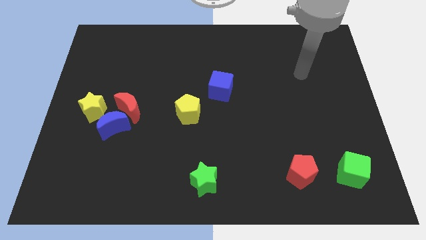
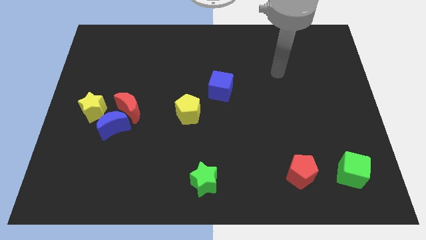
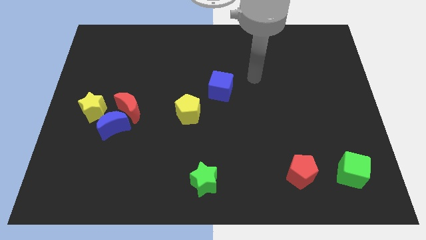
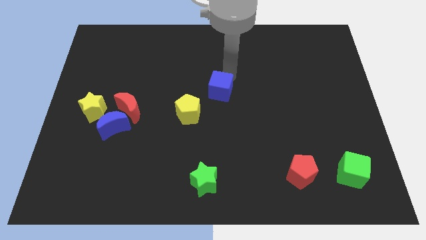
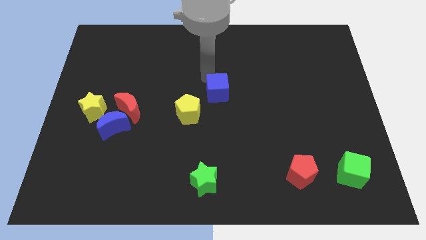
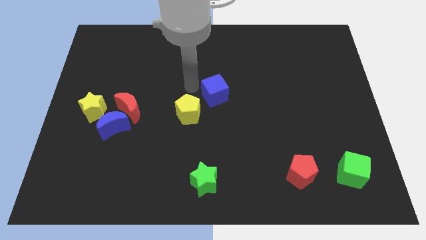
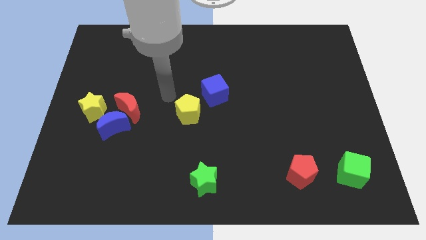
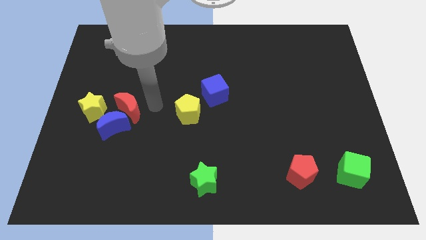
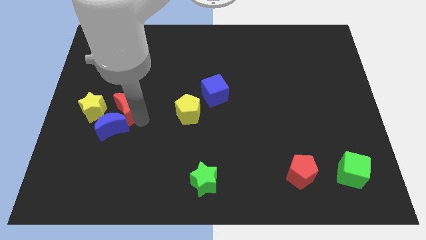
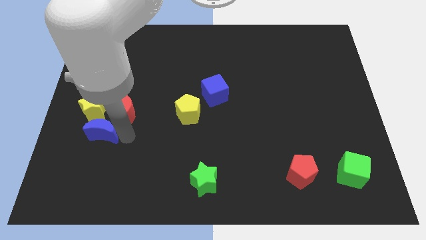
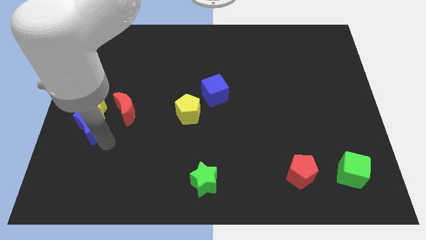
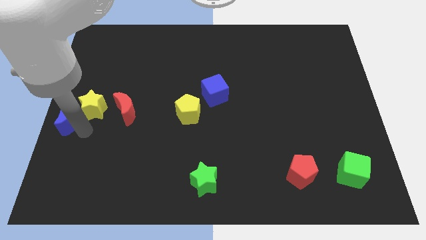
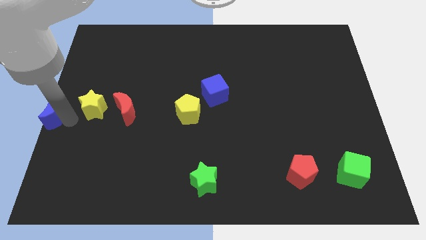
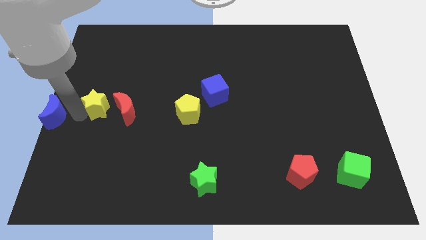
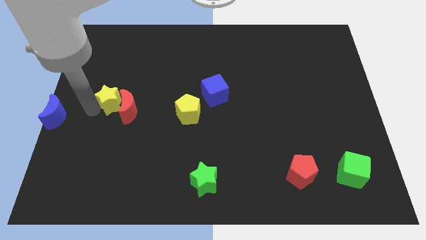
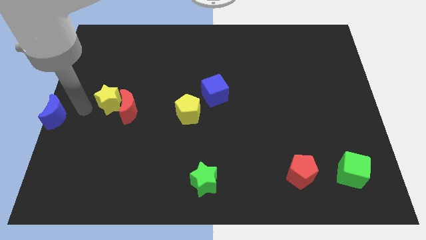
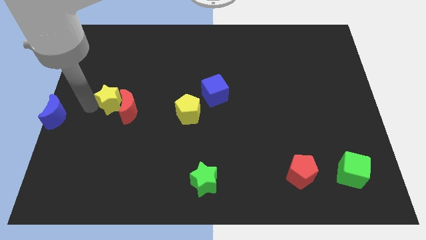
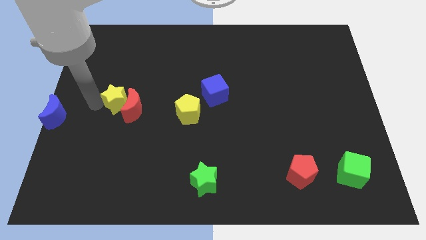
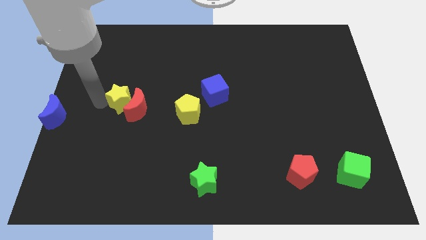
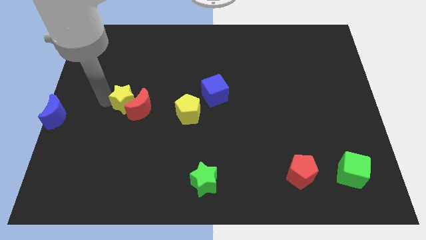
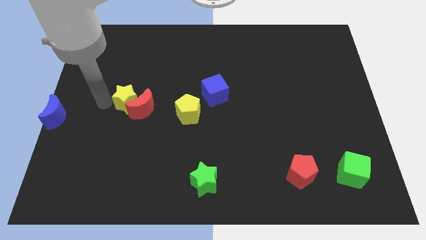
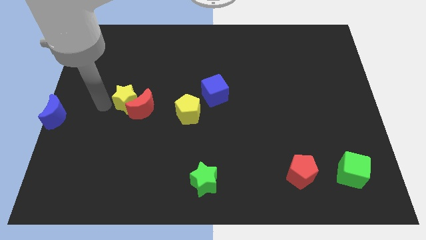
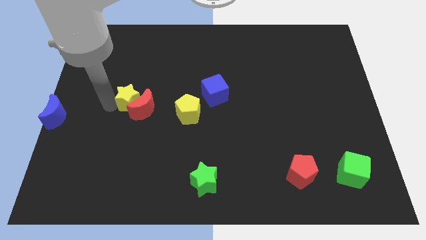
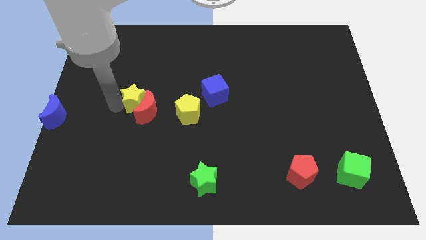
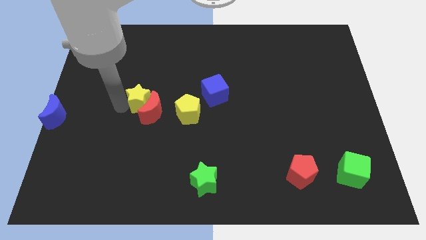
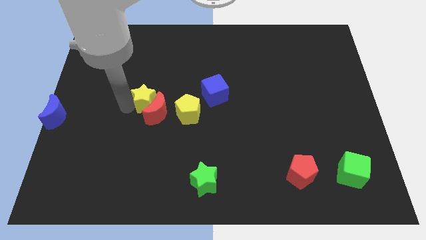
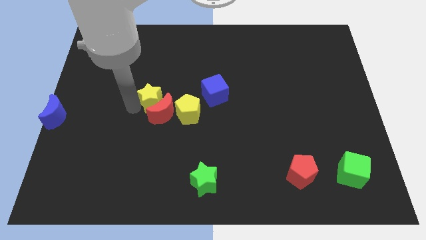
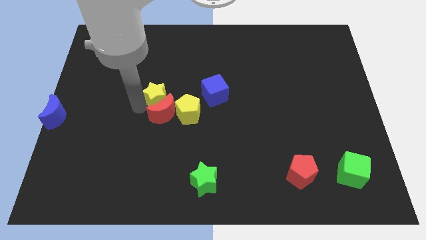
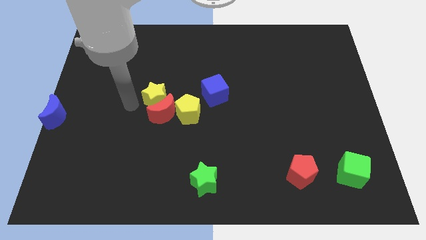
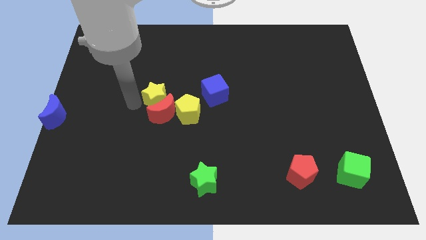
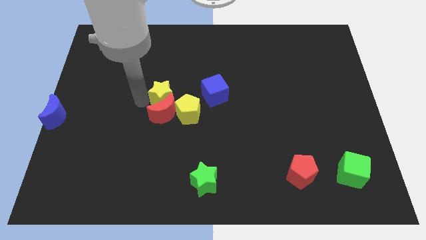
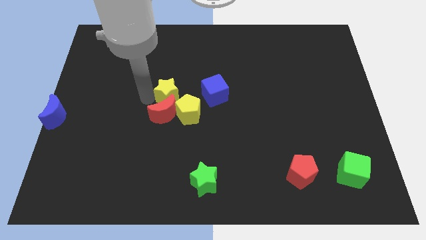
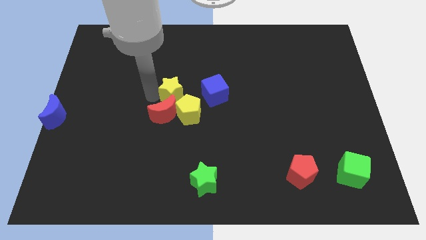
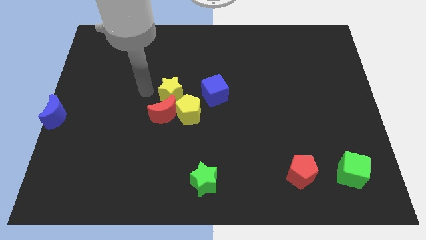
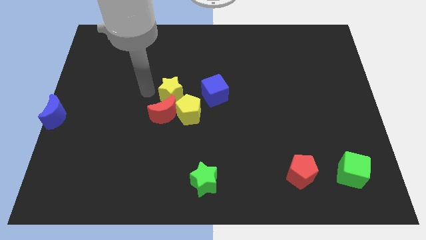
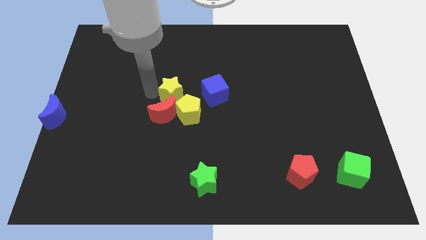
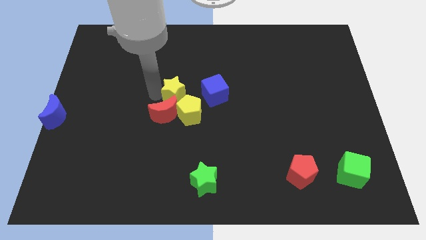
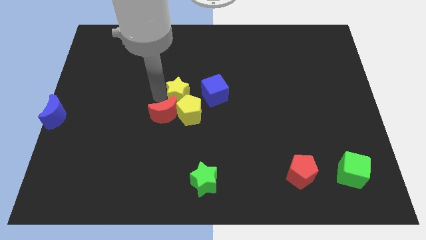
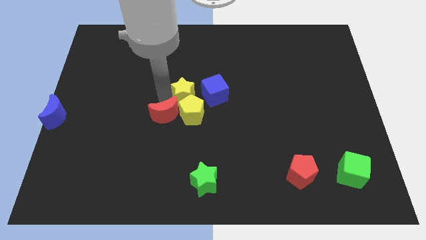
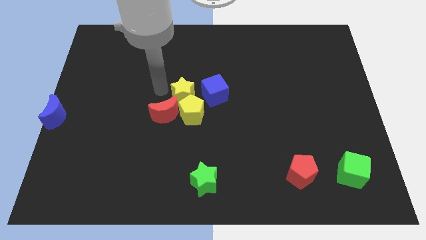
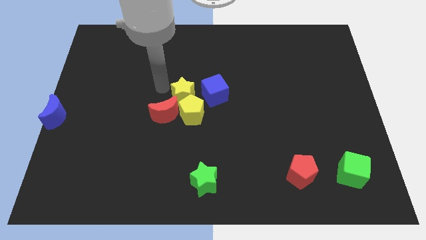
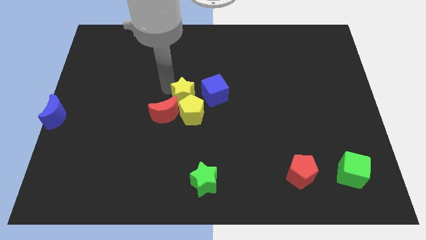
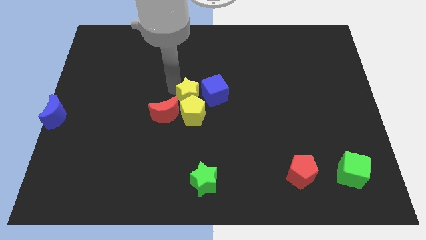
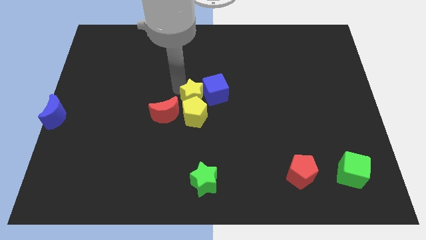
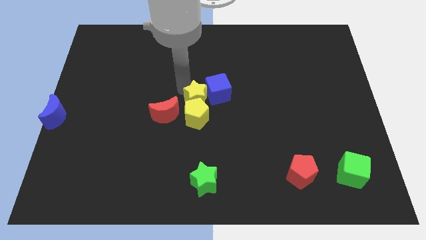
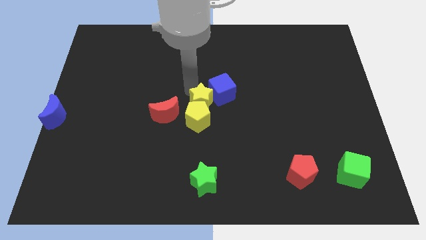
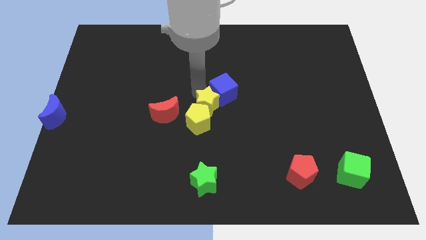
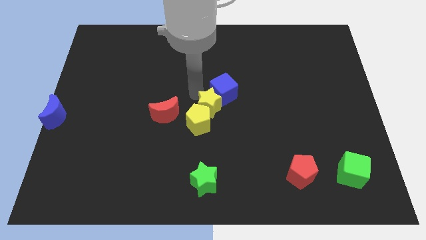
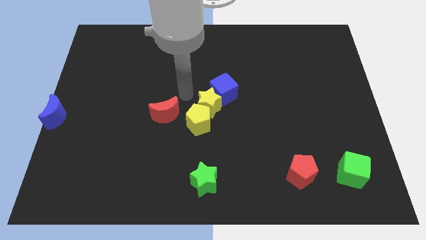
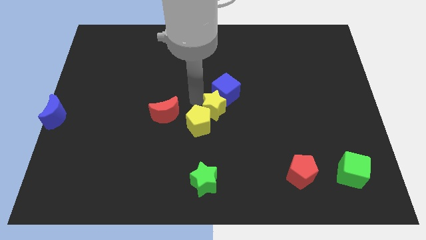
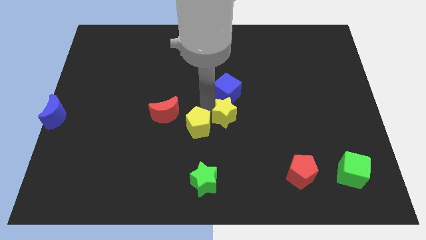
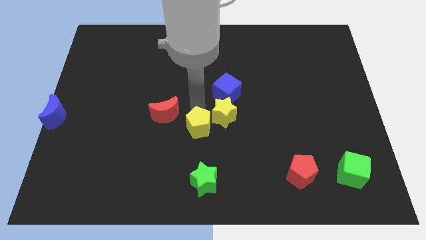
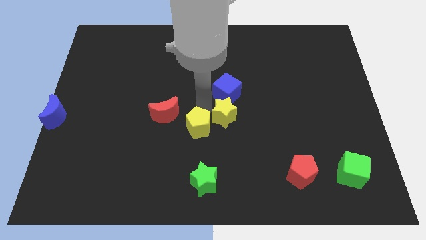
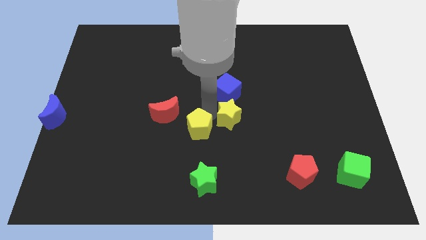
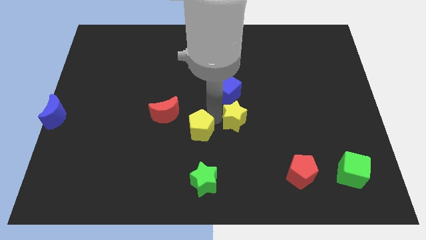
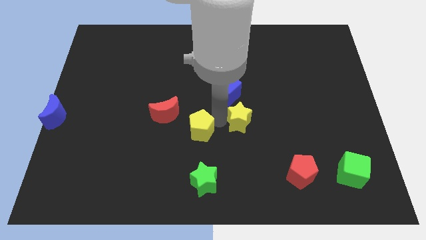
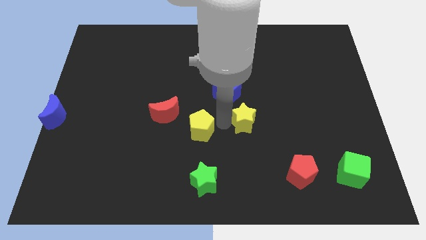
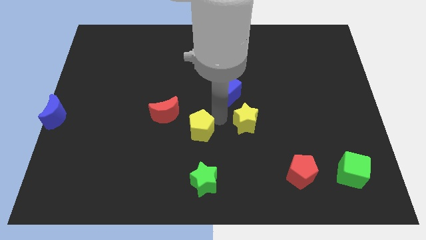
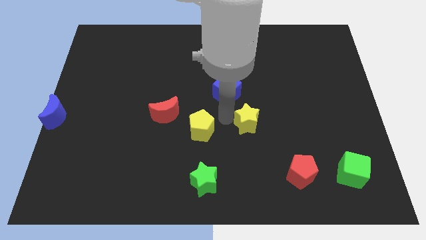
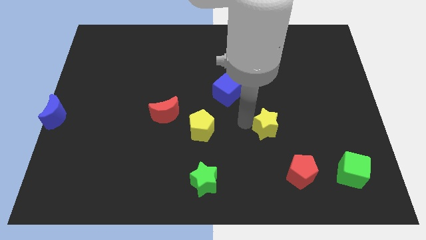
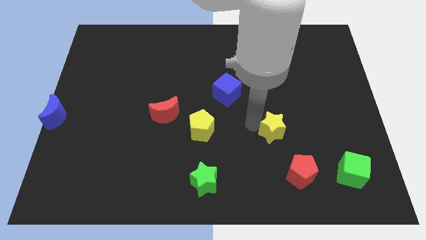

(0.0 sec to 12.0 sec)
slide the yellow star above the red pentagon

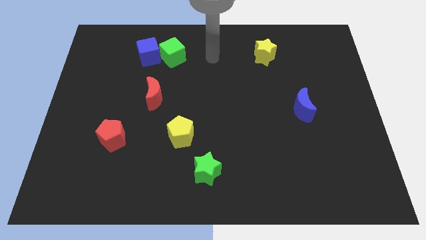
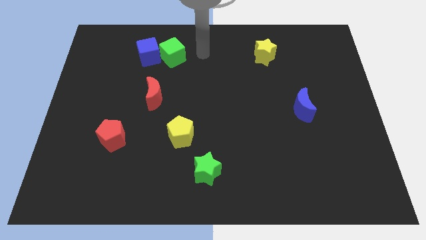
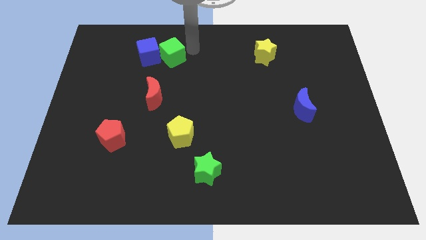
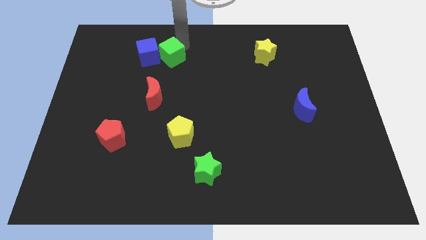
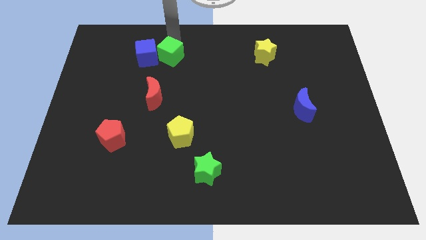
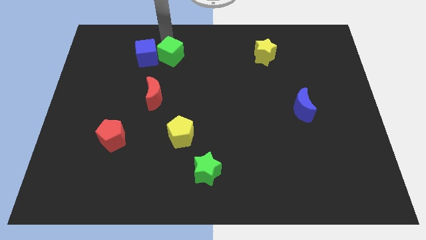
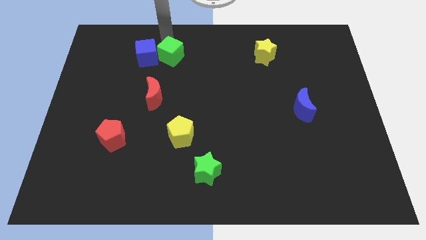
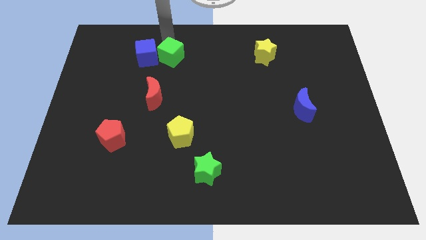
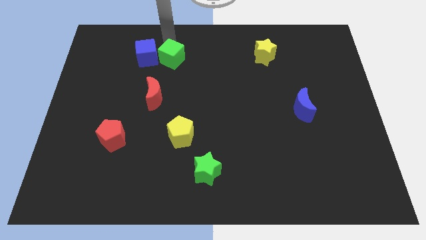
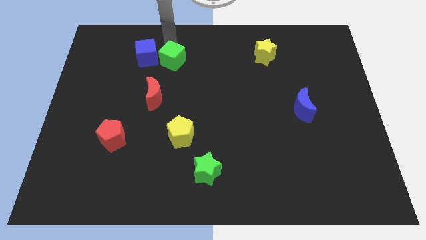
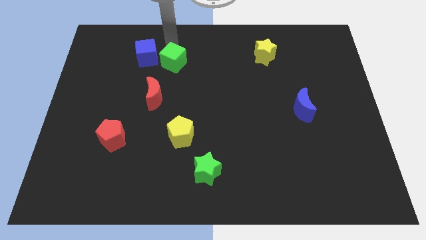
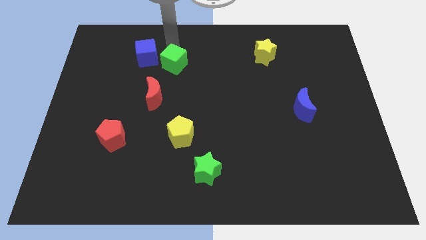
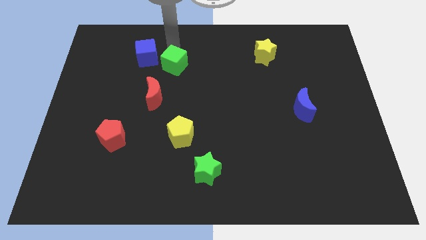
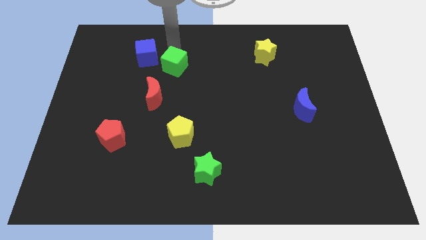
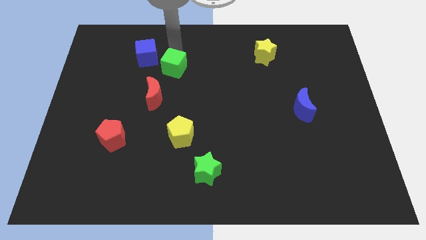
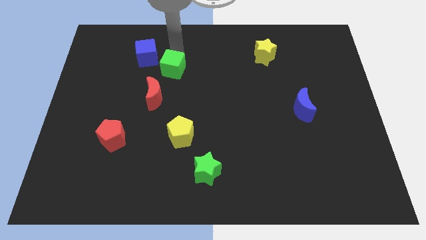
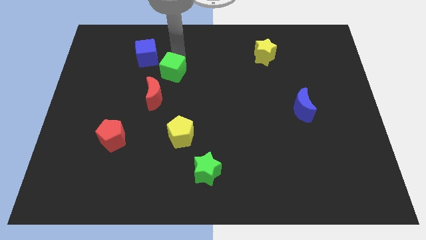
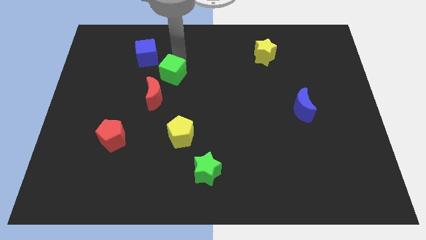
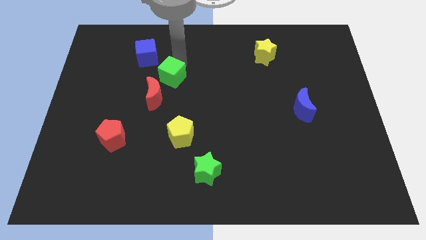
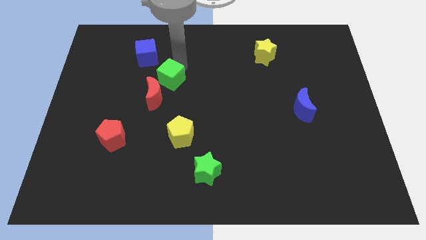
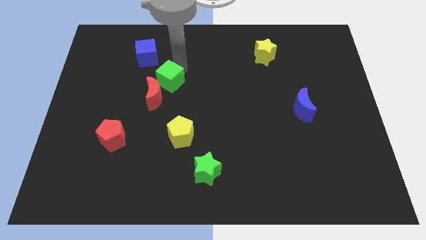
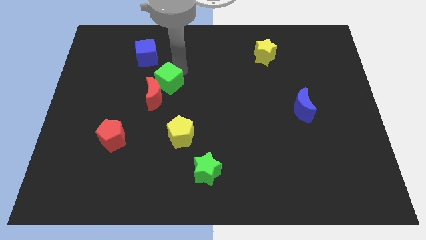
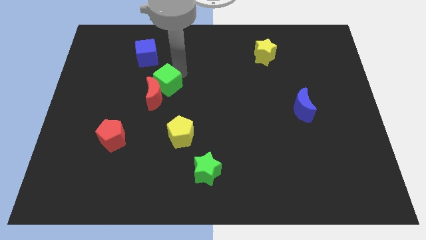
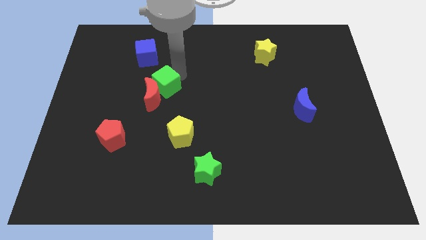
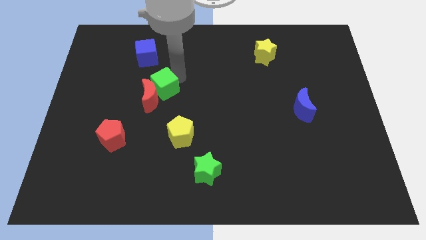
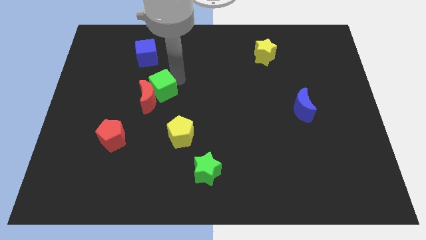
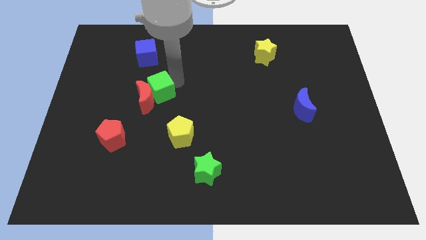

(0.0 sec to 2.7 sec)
put the green cube to the bottom side of the blue cube
